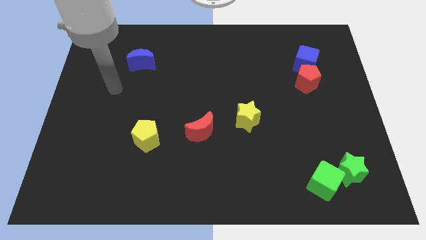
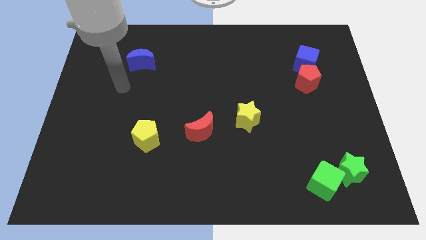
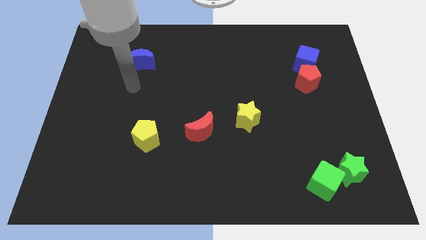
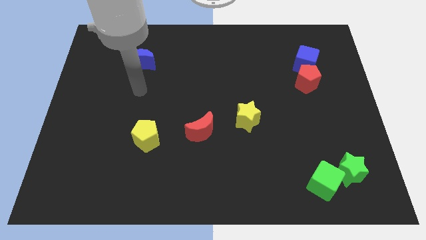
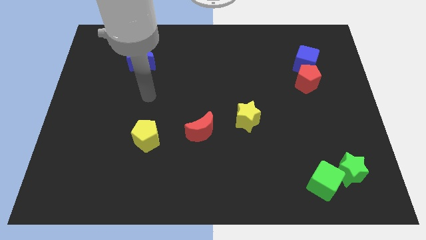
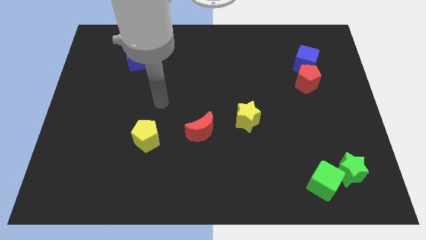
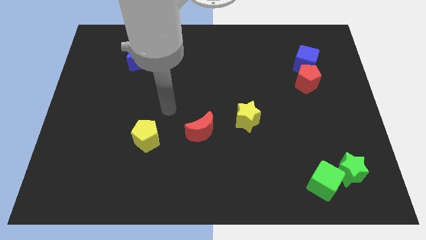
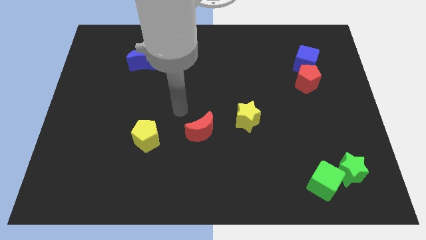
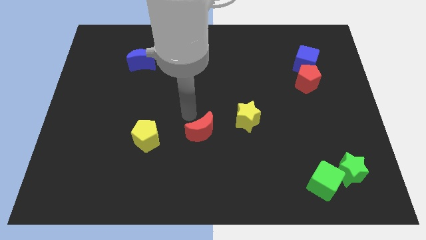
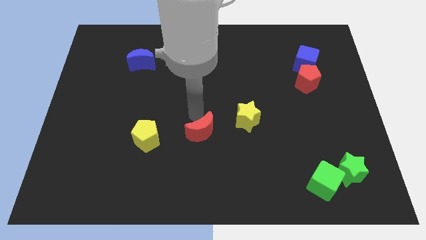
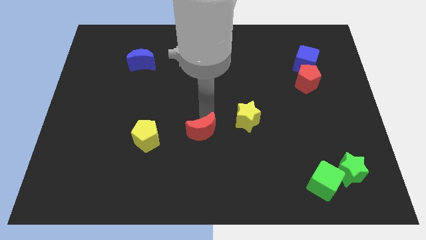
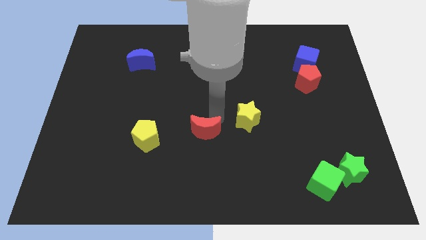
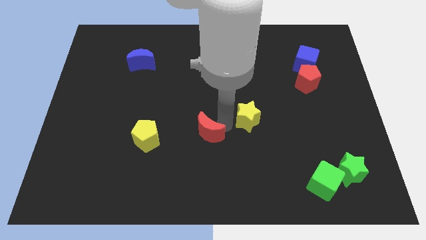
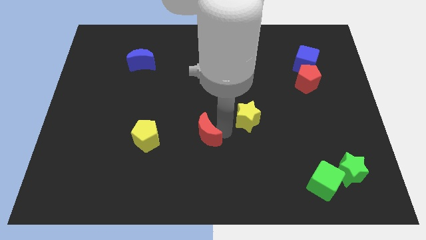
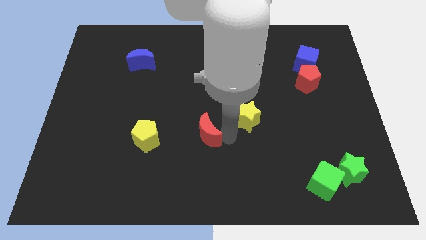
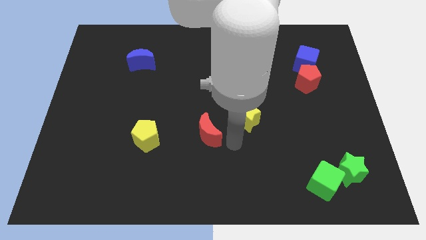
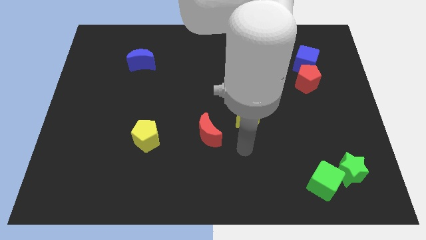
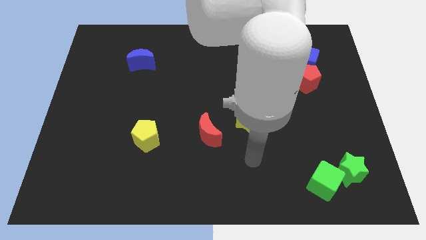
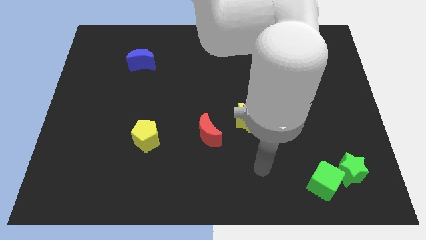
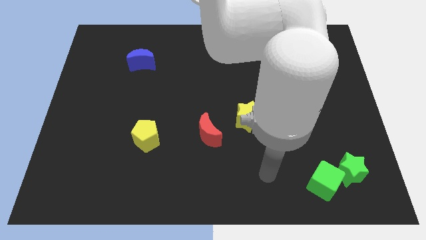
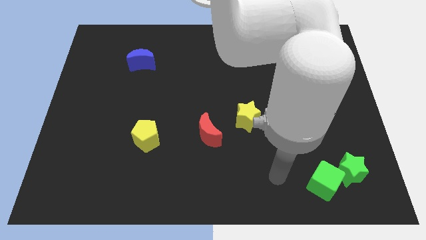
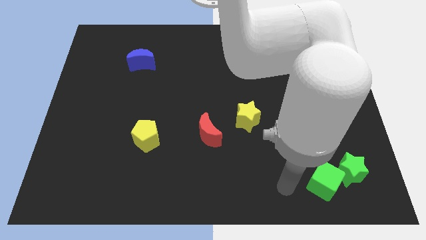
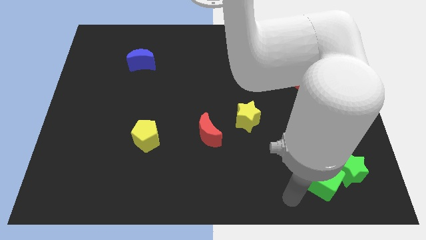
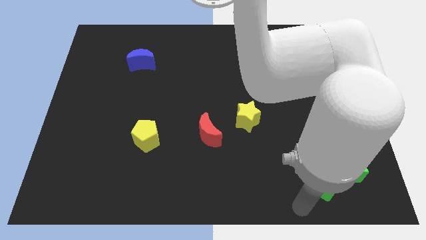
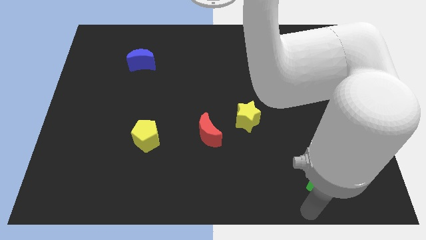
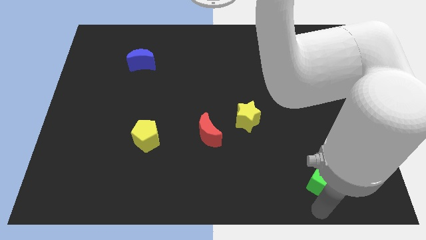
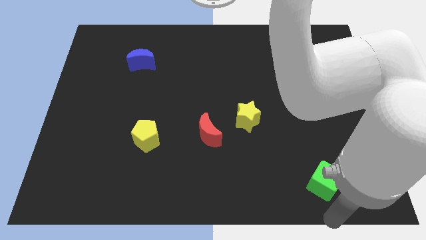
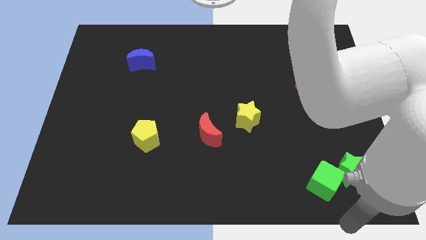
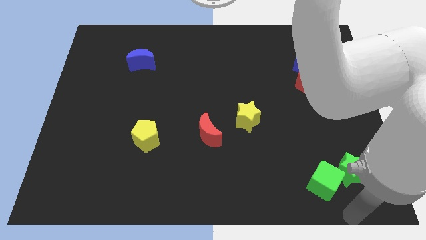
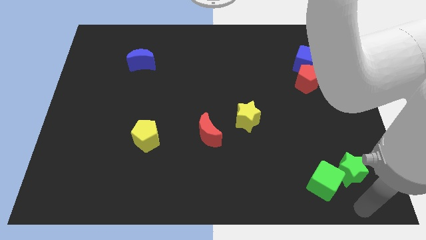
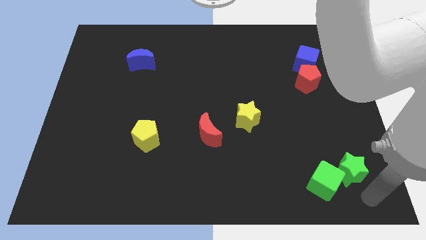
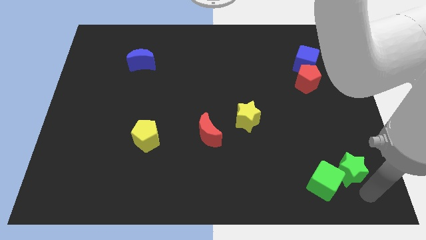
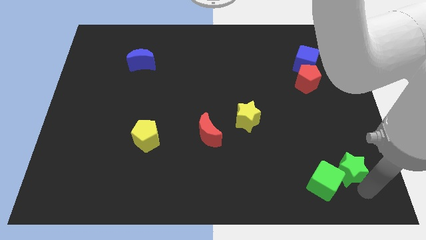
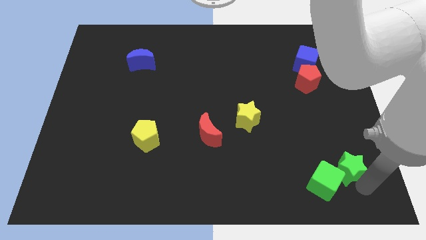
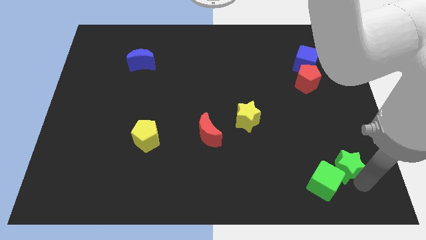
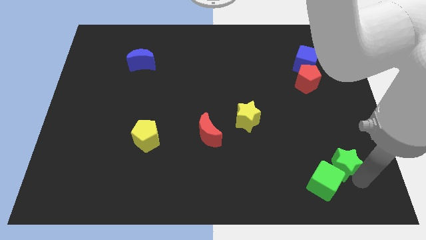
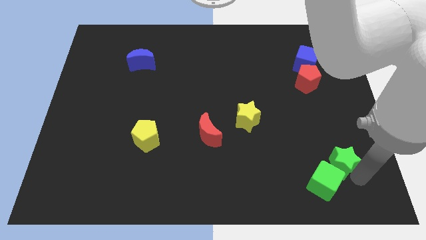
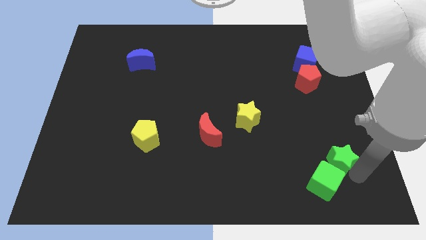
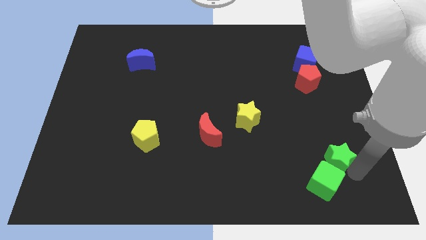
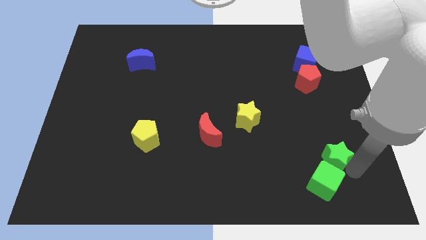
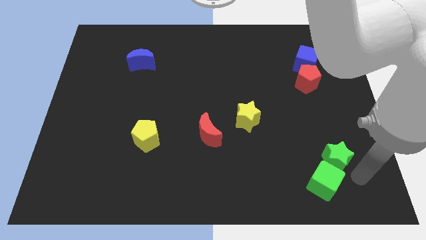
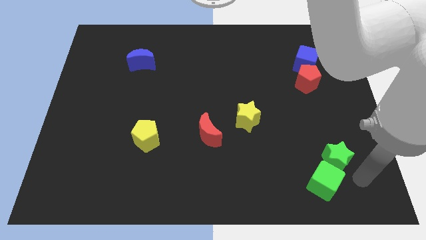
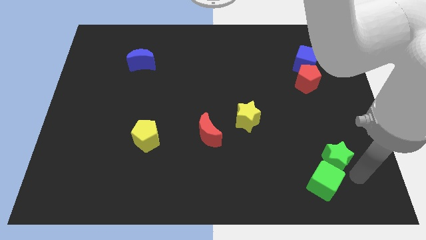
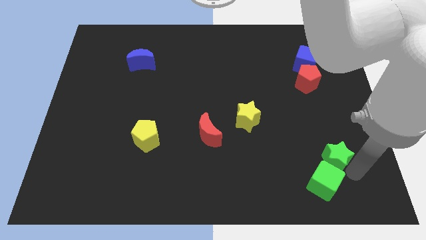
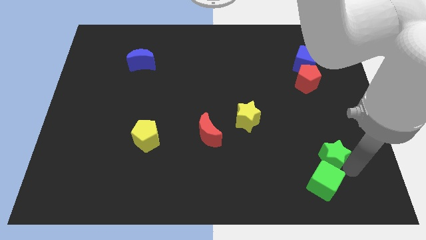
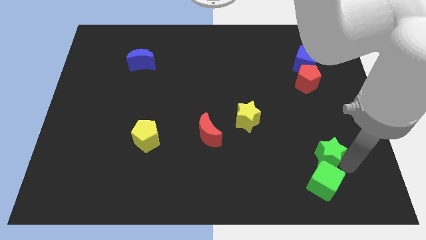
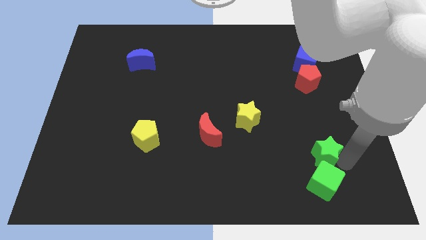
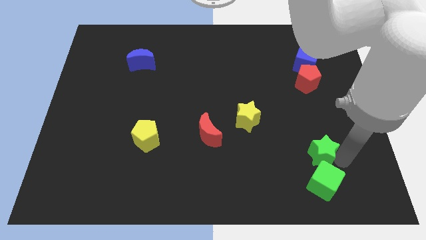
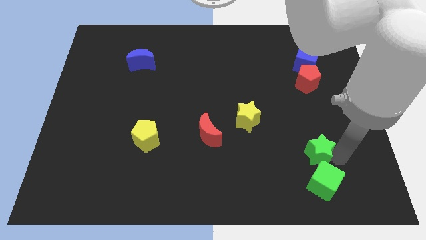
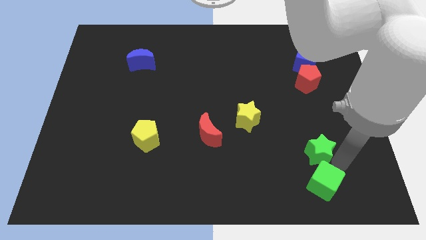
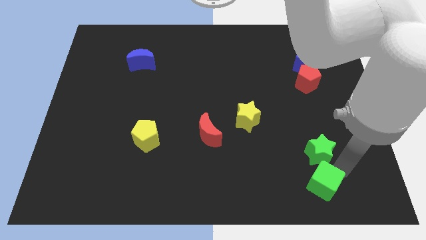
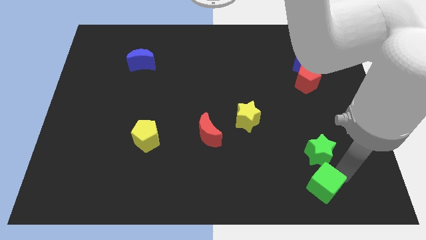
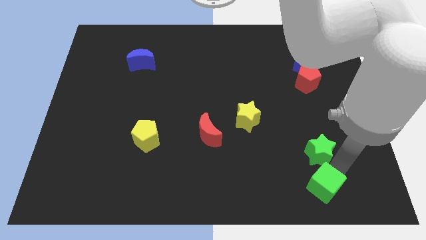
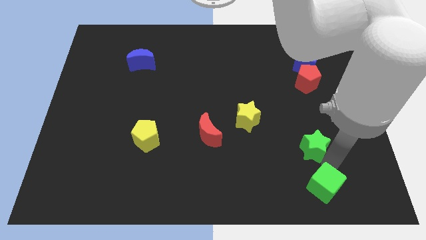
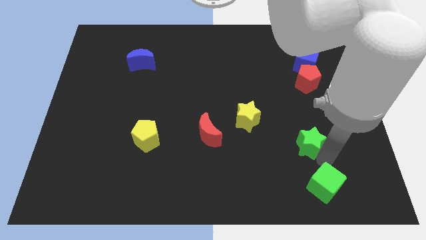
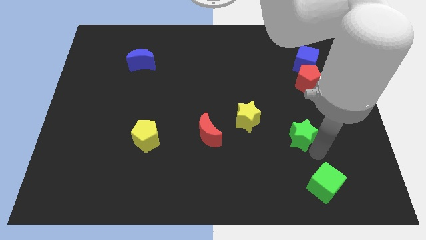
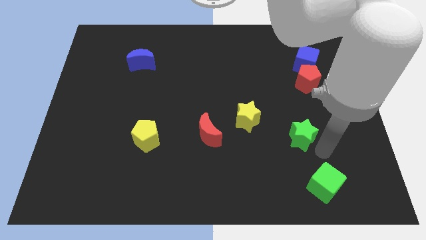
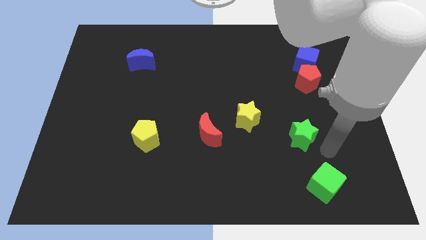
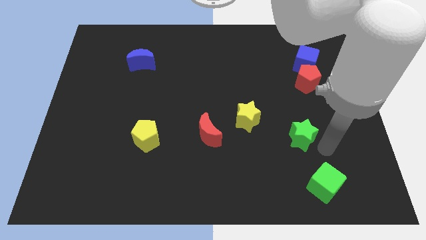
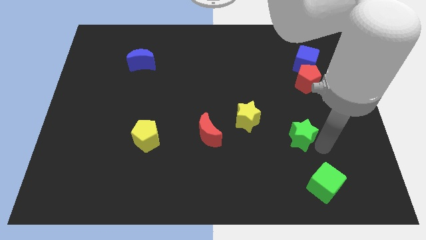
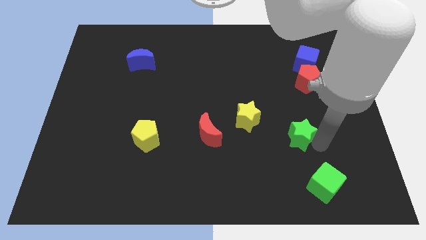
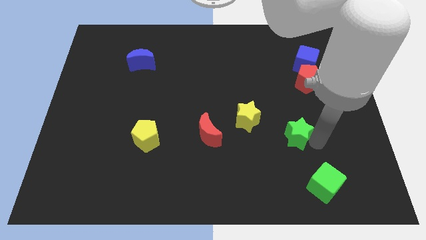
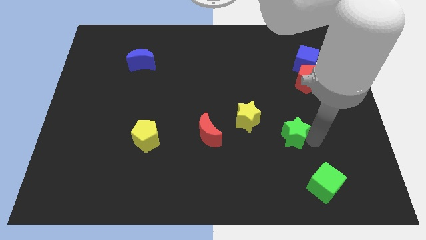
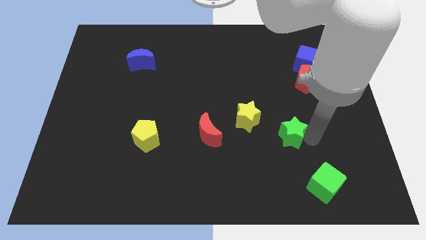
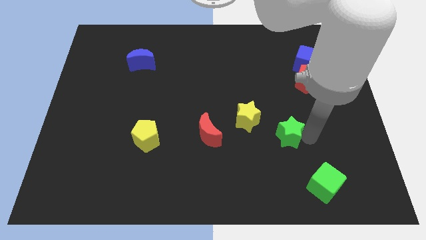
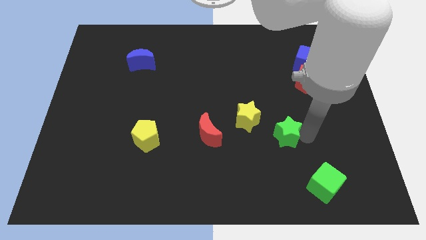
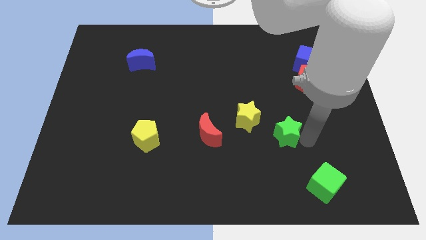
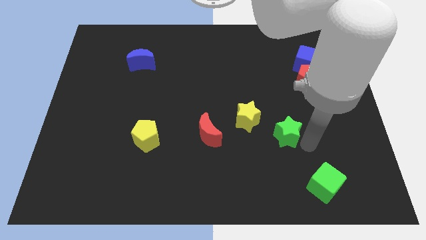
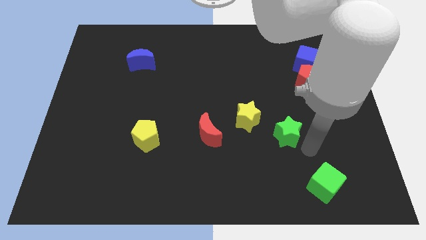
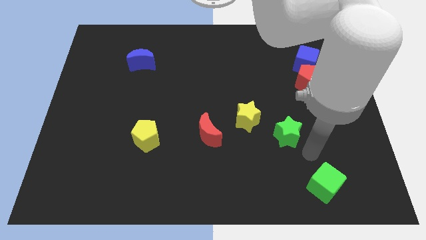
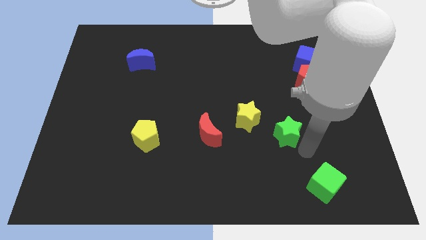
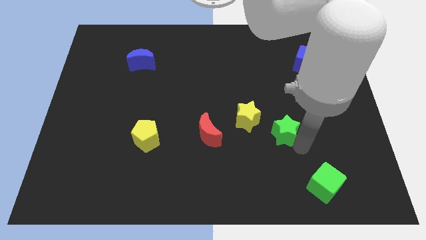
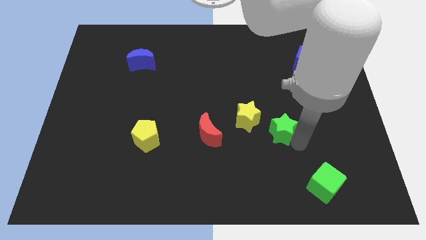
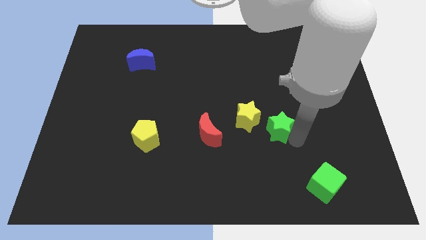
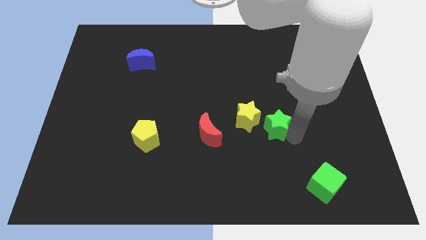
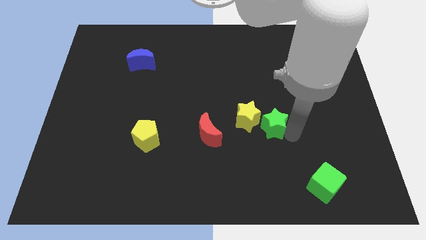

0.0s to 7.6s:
put the green star next to the yellow star
